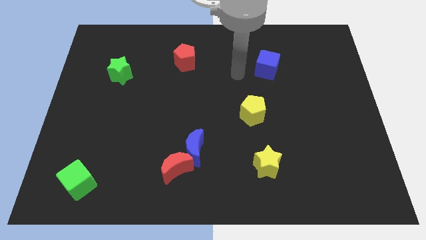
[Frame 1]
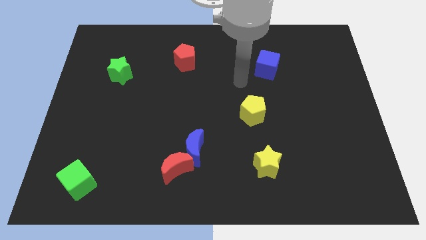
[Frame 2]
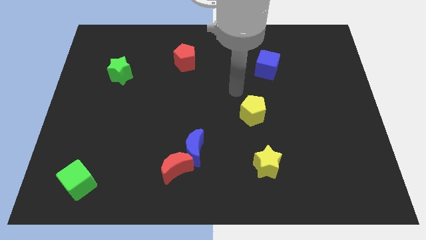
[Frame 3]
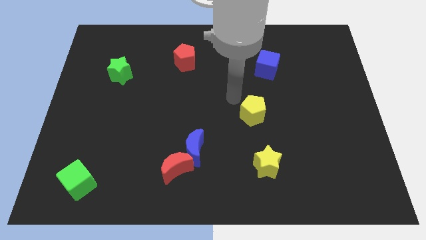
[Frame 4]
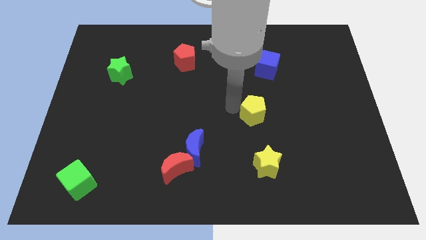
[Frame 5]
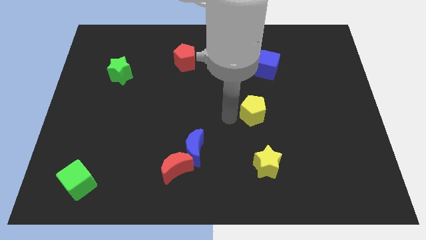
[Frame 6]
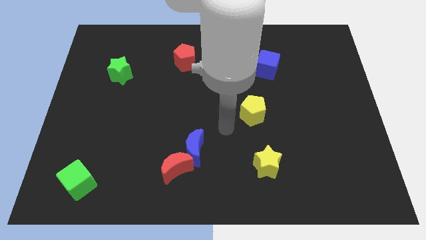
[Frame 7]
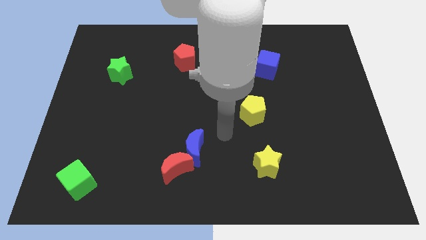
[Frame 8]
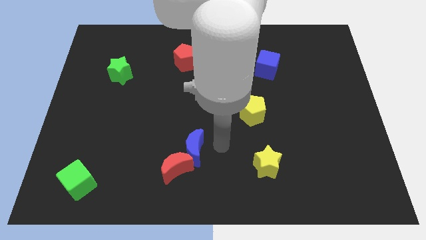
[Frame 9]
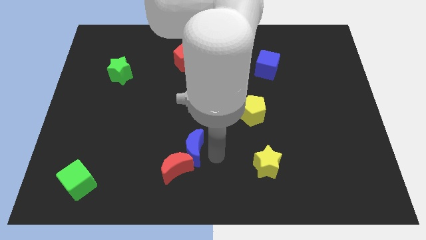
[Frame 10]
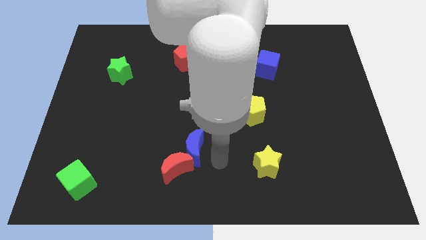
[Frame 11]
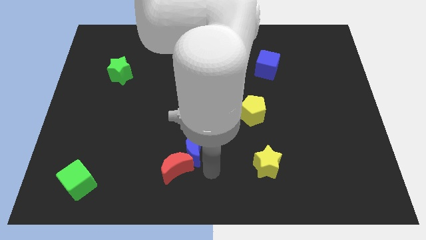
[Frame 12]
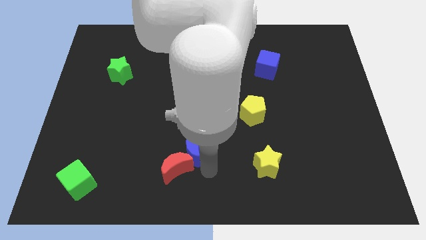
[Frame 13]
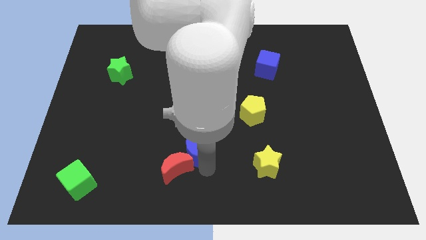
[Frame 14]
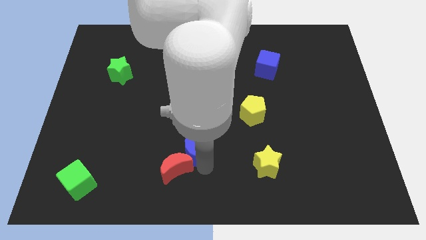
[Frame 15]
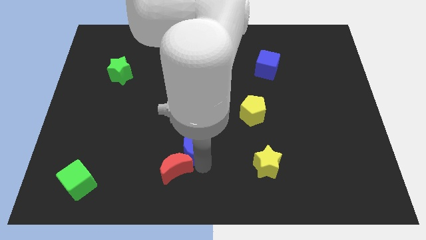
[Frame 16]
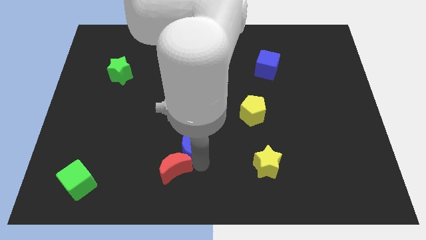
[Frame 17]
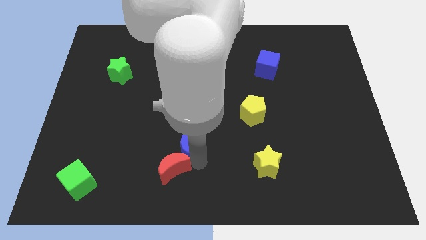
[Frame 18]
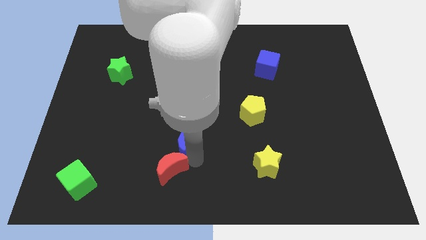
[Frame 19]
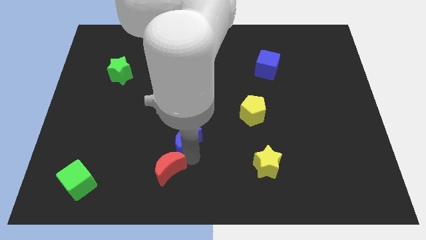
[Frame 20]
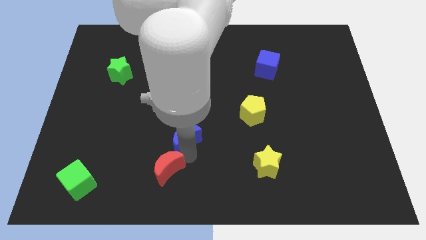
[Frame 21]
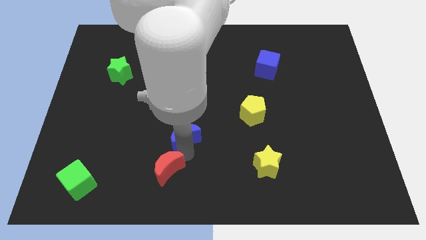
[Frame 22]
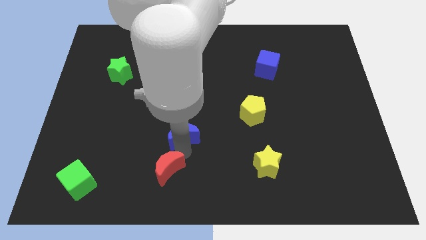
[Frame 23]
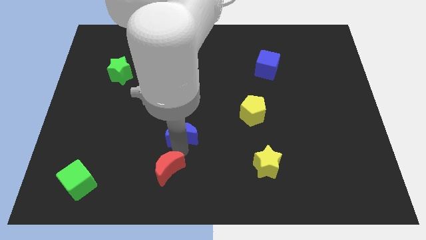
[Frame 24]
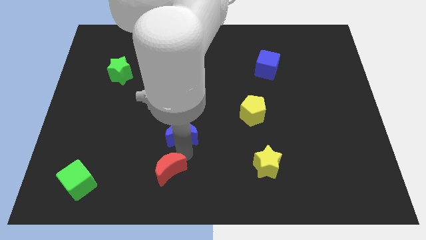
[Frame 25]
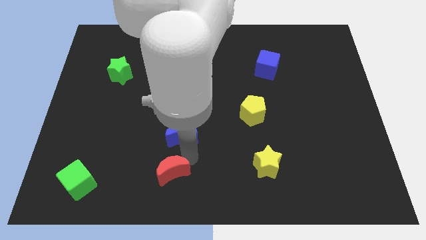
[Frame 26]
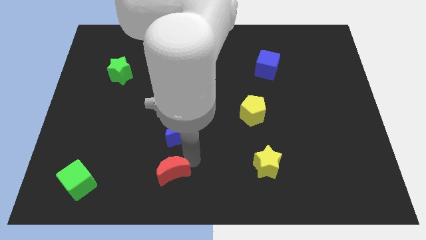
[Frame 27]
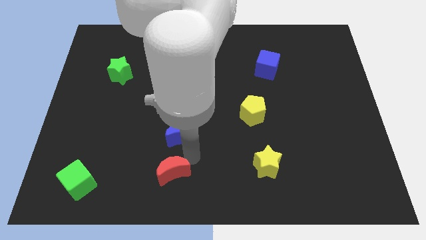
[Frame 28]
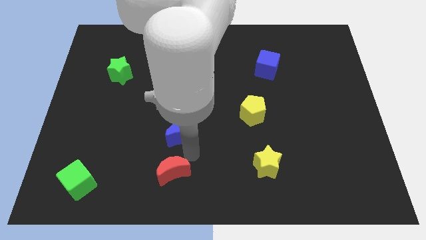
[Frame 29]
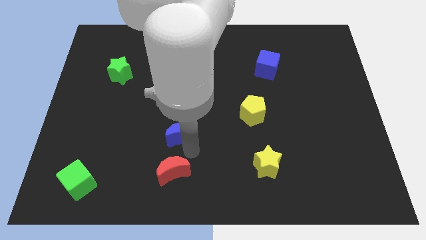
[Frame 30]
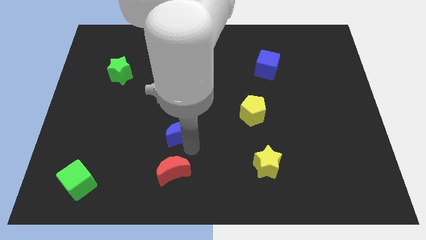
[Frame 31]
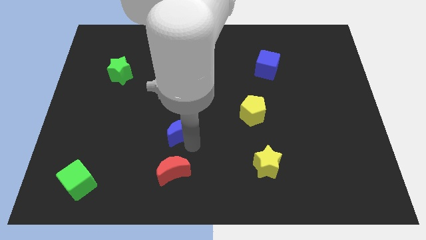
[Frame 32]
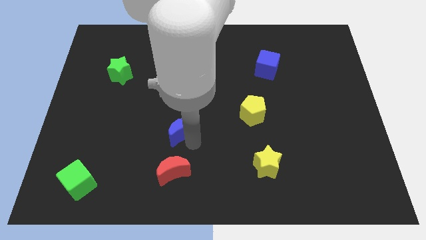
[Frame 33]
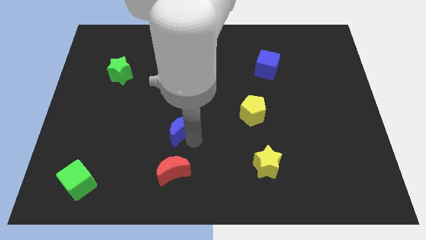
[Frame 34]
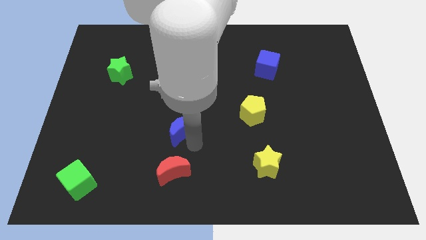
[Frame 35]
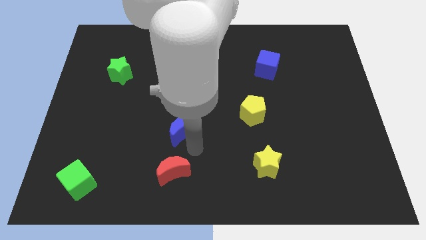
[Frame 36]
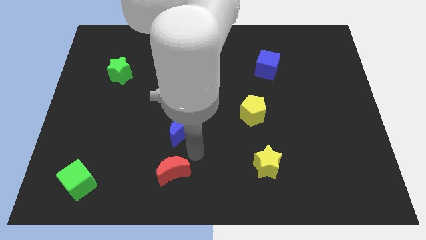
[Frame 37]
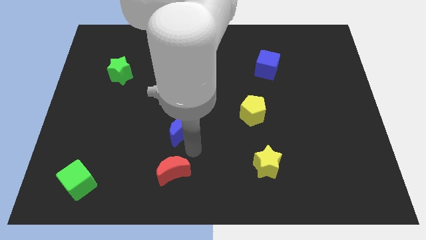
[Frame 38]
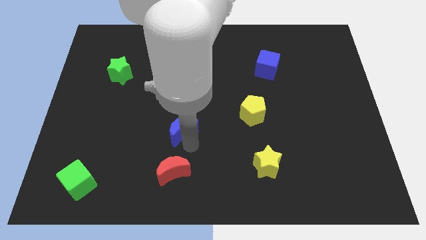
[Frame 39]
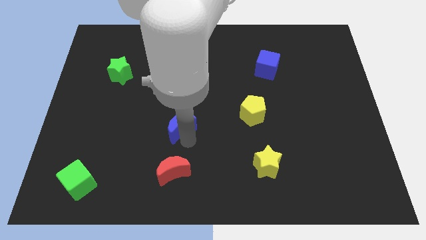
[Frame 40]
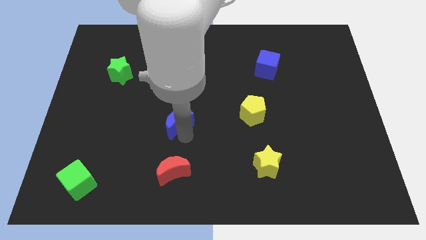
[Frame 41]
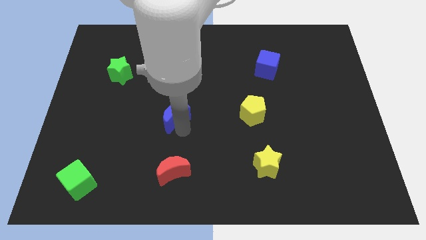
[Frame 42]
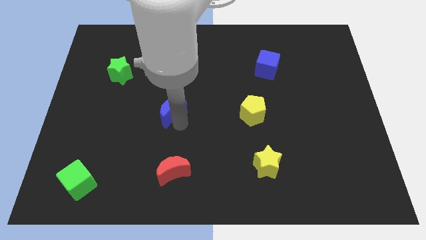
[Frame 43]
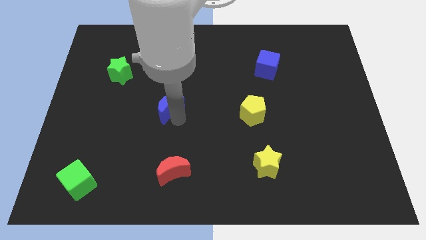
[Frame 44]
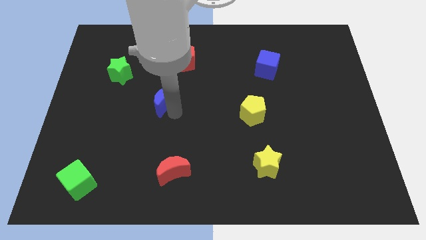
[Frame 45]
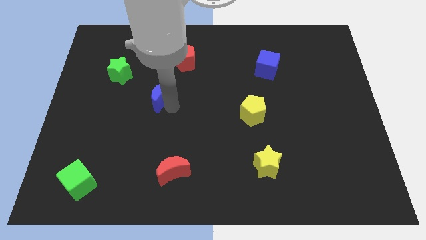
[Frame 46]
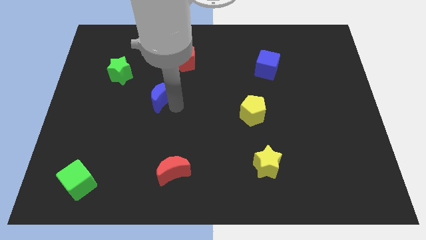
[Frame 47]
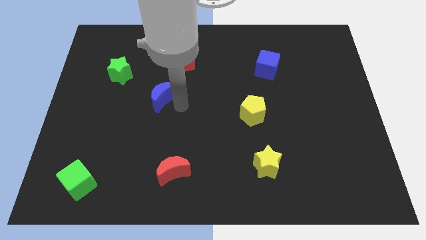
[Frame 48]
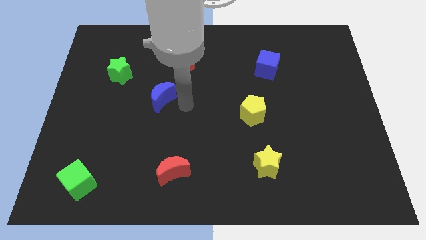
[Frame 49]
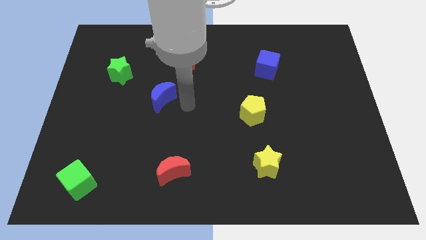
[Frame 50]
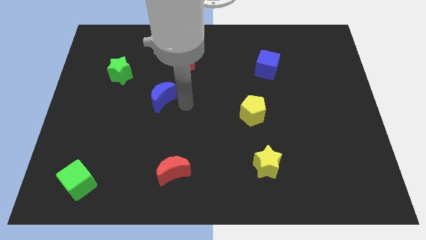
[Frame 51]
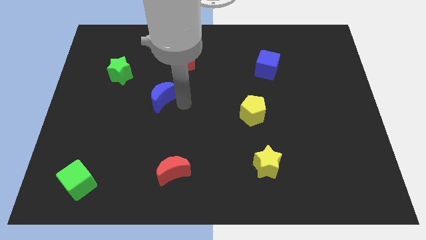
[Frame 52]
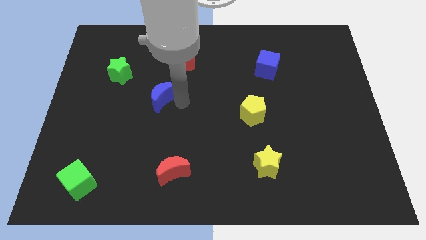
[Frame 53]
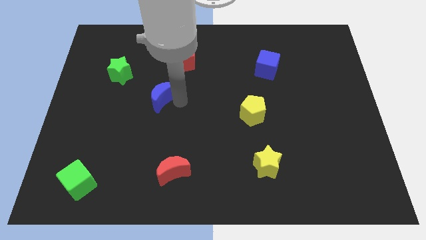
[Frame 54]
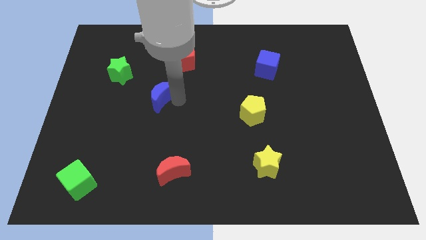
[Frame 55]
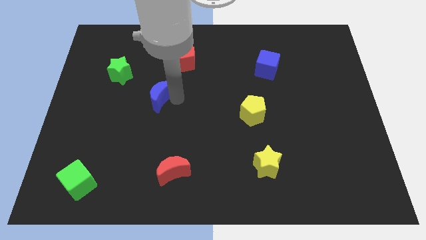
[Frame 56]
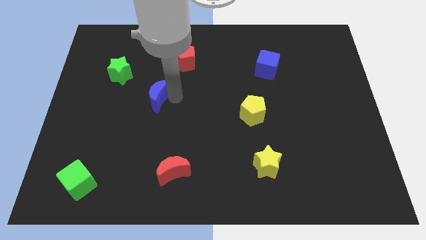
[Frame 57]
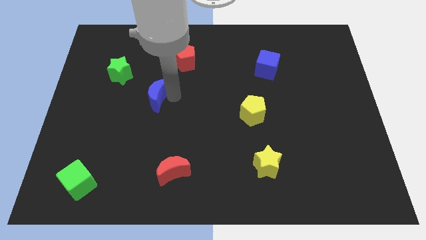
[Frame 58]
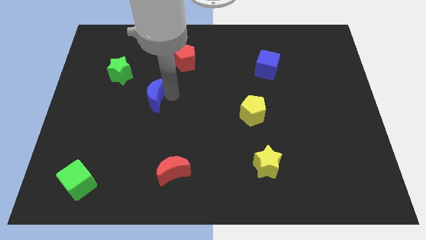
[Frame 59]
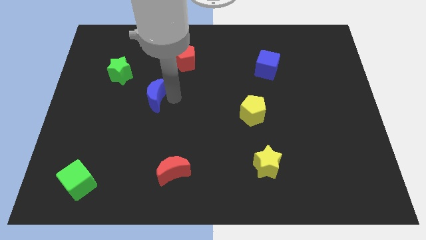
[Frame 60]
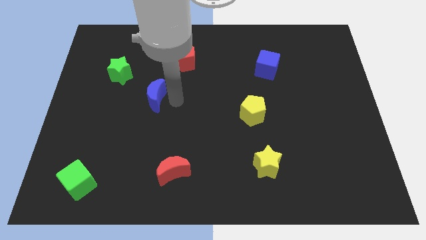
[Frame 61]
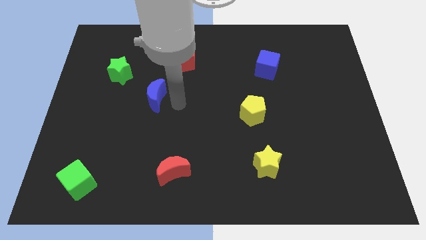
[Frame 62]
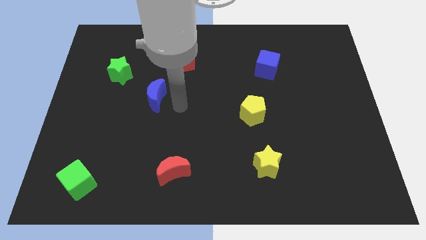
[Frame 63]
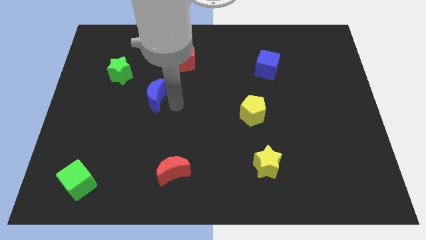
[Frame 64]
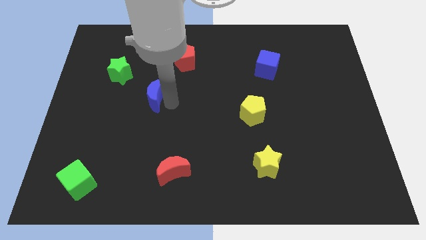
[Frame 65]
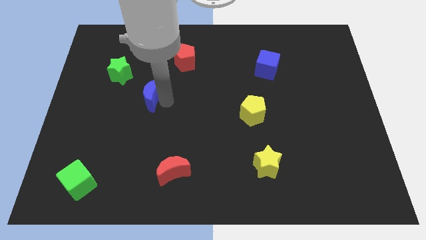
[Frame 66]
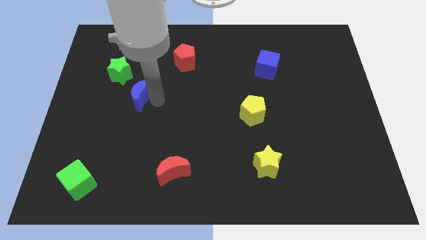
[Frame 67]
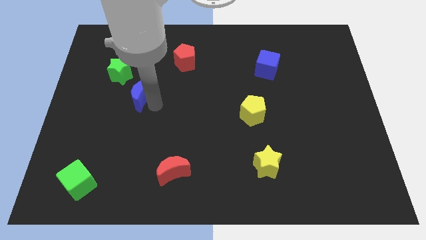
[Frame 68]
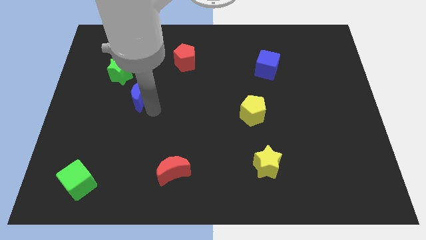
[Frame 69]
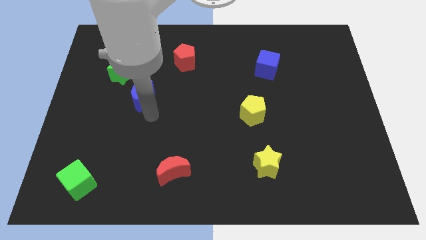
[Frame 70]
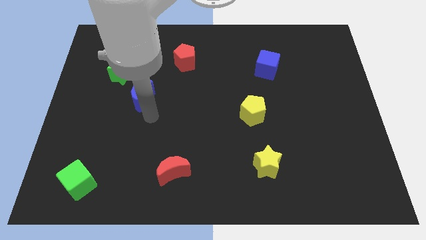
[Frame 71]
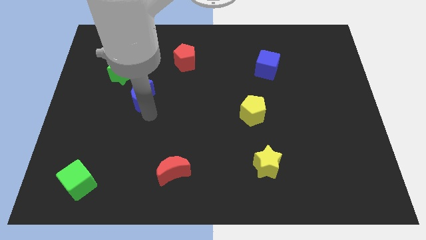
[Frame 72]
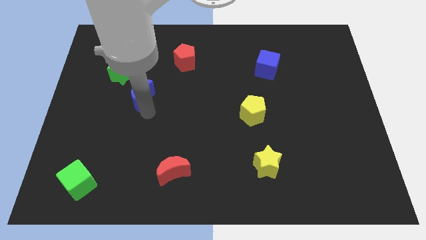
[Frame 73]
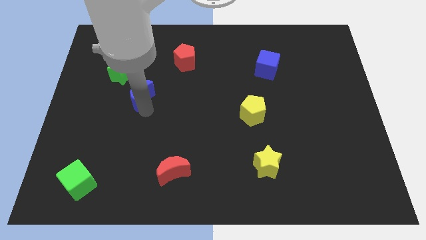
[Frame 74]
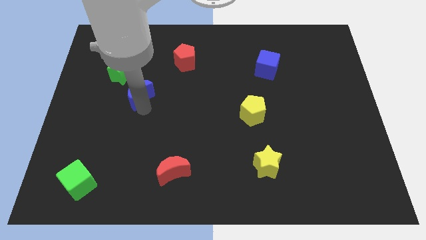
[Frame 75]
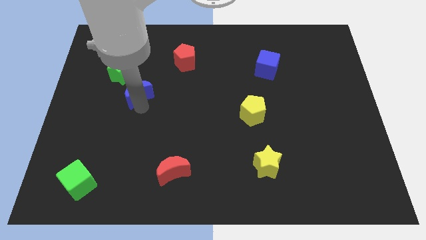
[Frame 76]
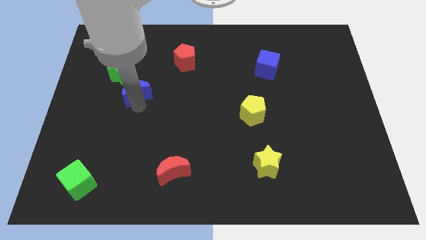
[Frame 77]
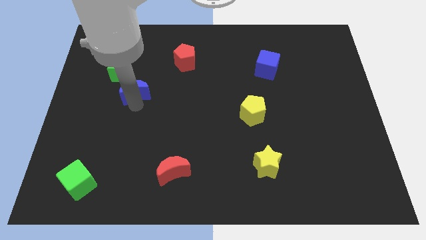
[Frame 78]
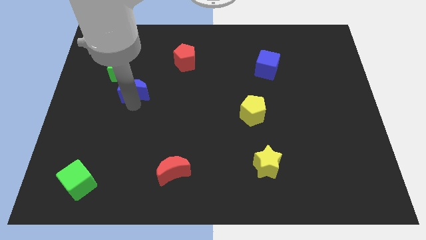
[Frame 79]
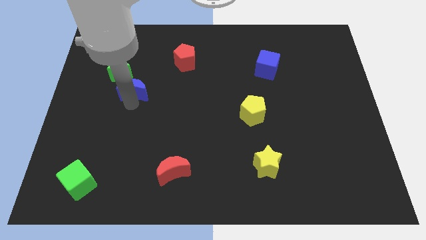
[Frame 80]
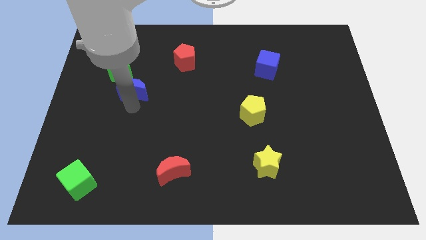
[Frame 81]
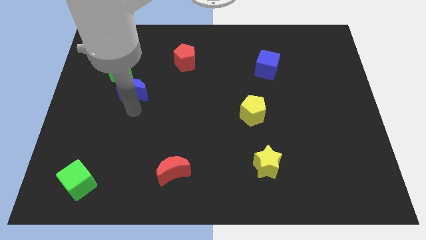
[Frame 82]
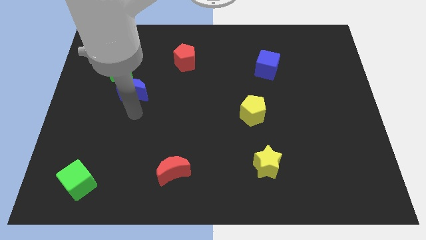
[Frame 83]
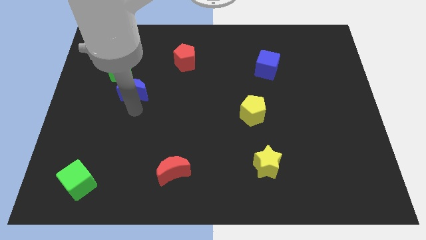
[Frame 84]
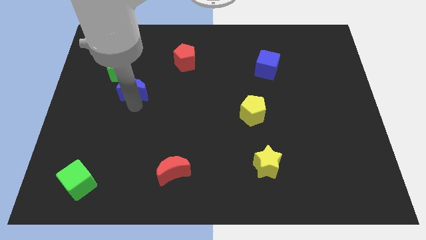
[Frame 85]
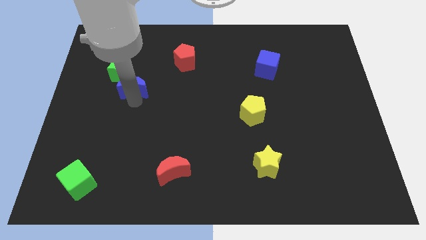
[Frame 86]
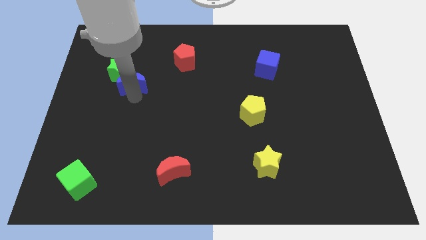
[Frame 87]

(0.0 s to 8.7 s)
slide the blue moon next to the green star
